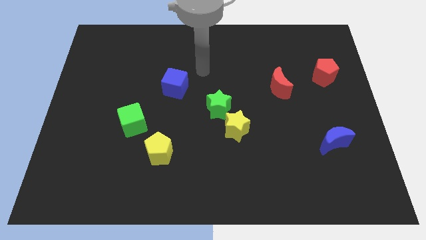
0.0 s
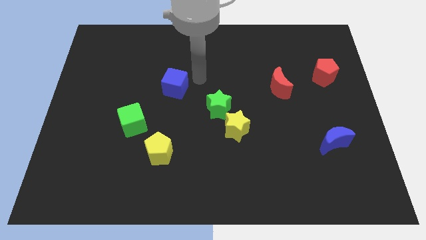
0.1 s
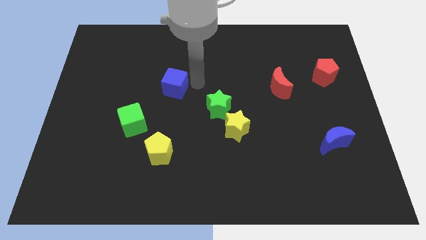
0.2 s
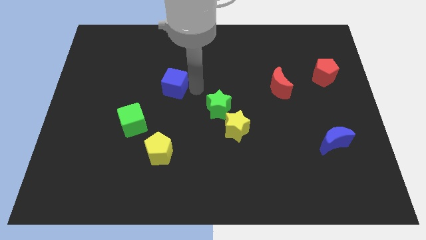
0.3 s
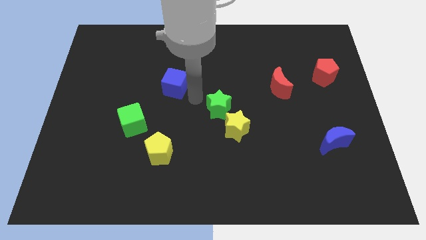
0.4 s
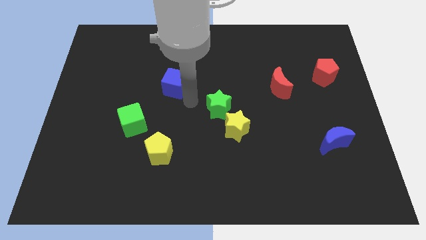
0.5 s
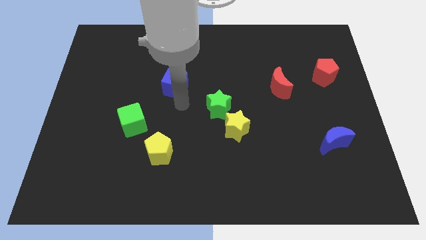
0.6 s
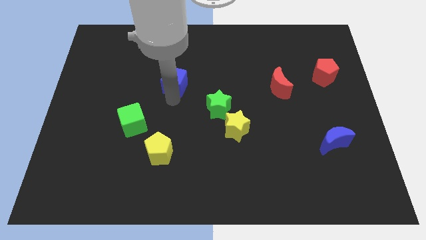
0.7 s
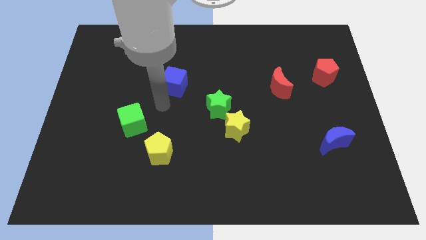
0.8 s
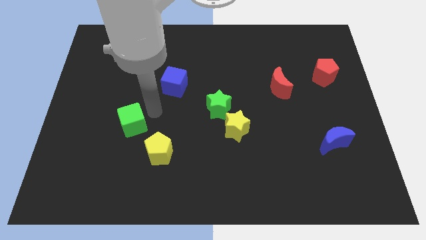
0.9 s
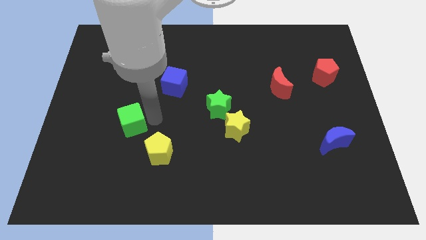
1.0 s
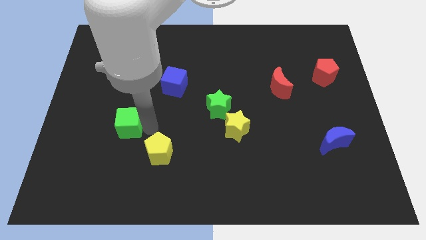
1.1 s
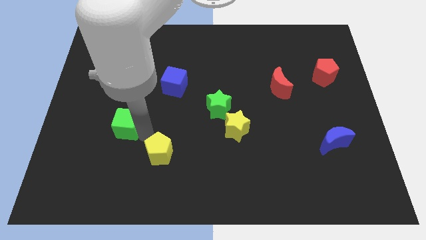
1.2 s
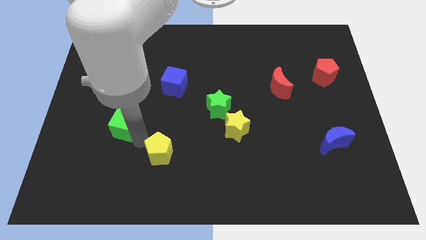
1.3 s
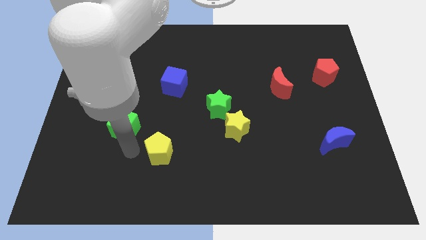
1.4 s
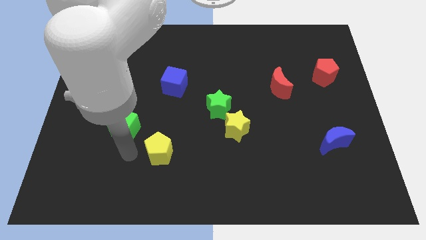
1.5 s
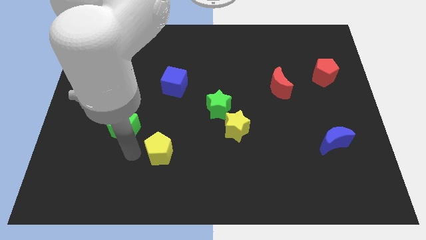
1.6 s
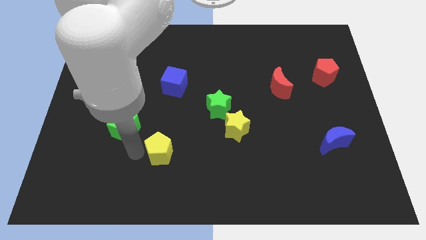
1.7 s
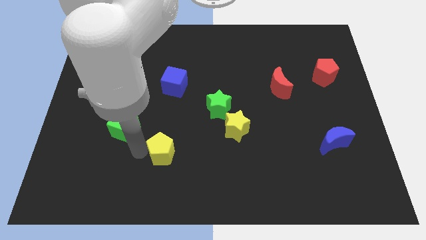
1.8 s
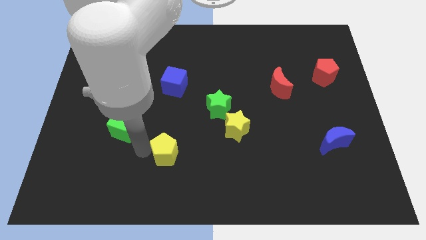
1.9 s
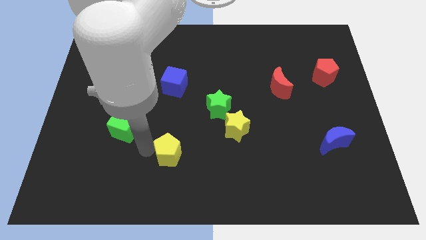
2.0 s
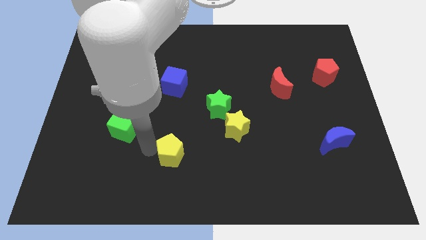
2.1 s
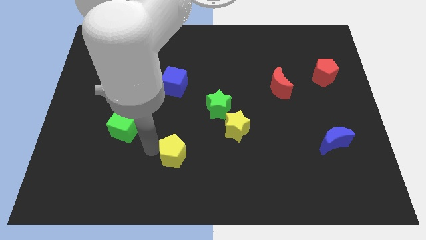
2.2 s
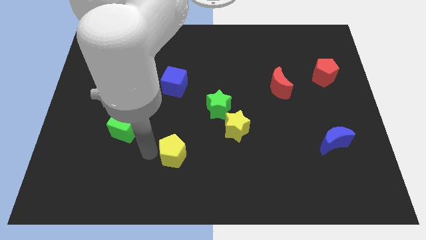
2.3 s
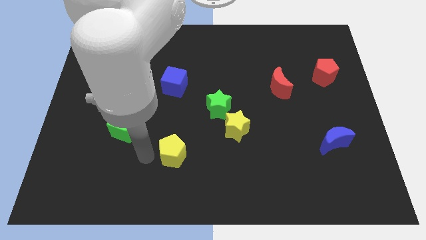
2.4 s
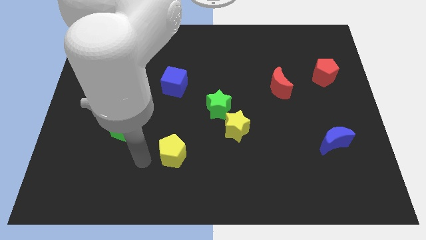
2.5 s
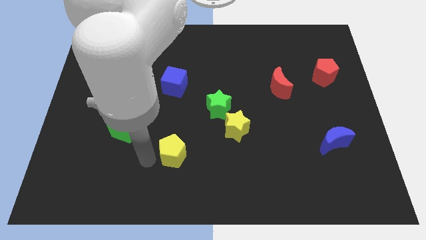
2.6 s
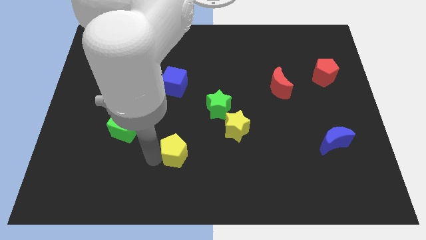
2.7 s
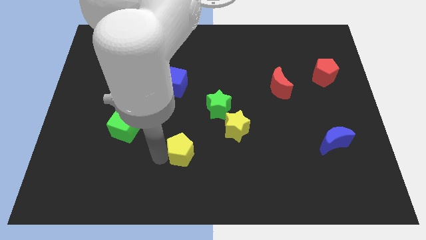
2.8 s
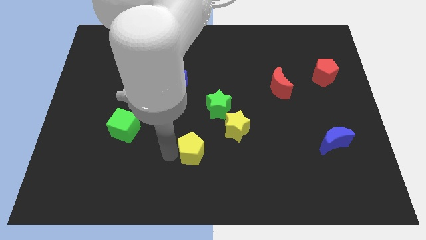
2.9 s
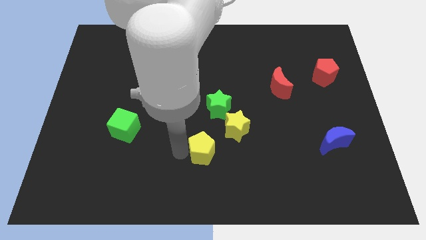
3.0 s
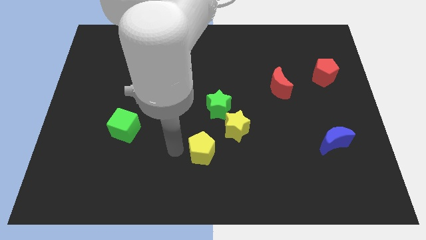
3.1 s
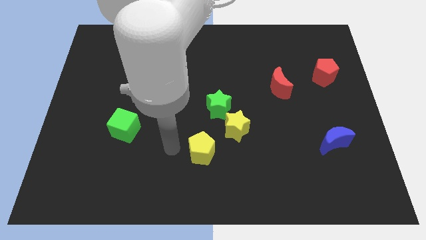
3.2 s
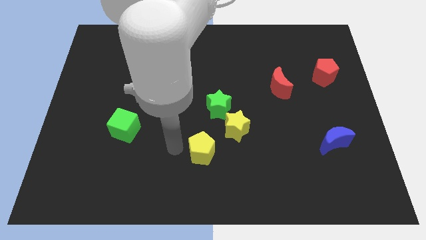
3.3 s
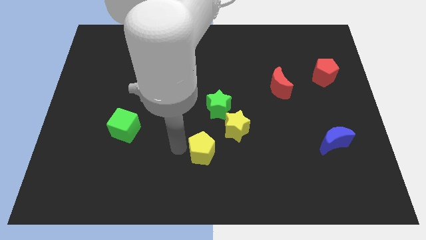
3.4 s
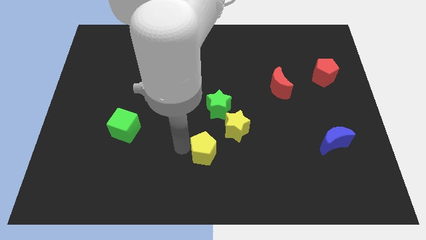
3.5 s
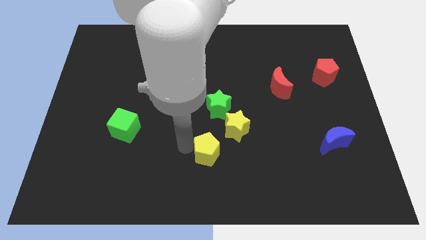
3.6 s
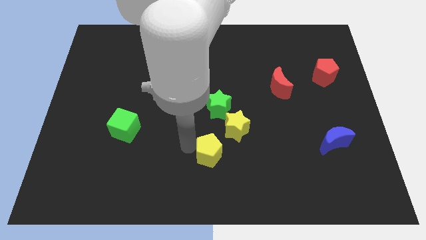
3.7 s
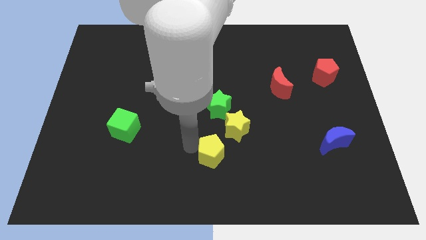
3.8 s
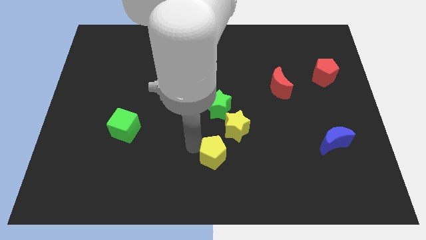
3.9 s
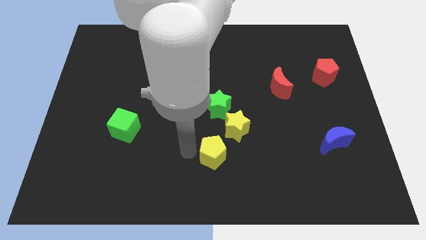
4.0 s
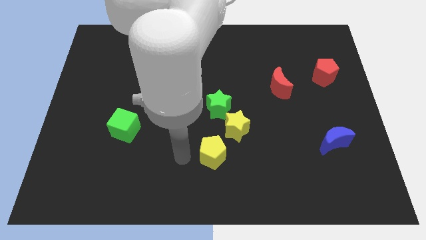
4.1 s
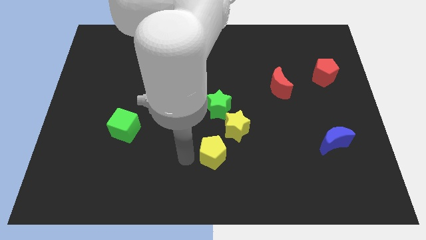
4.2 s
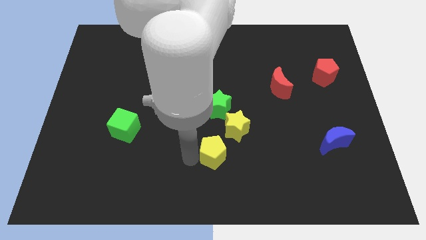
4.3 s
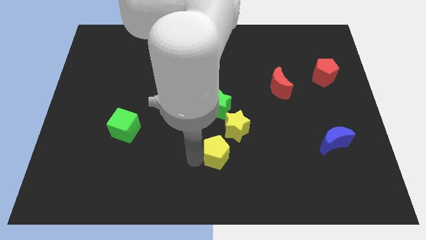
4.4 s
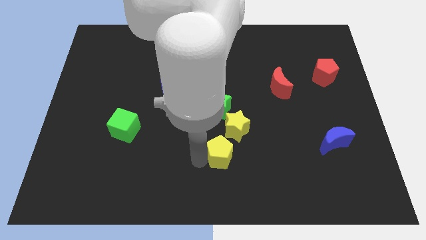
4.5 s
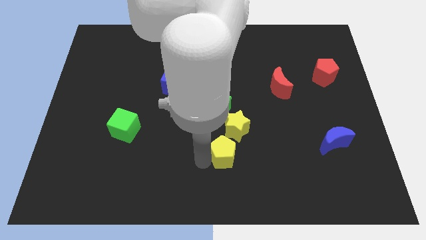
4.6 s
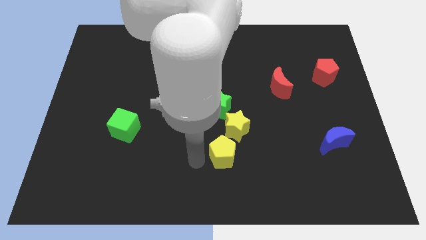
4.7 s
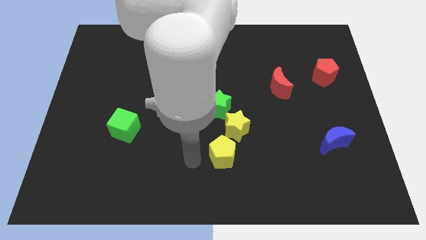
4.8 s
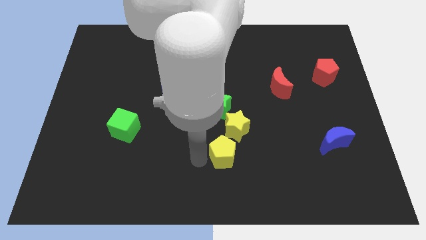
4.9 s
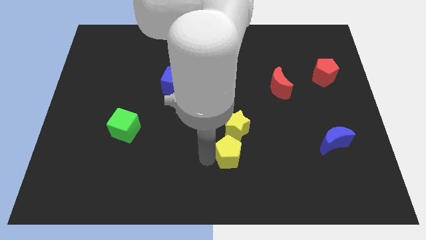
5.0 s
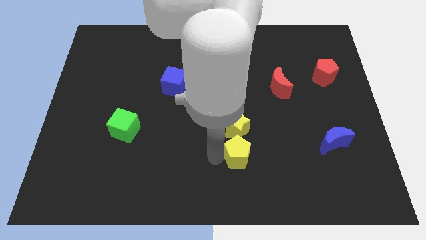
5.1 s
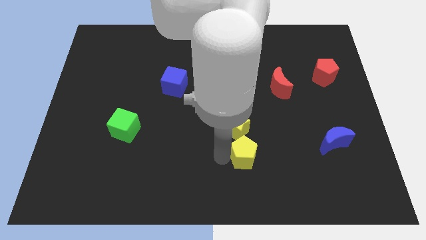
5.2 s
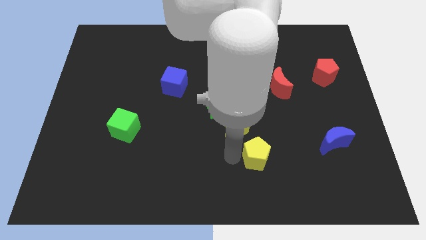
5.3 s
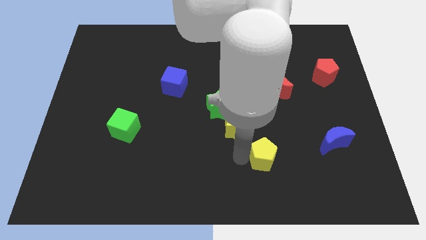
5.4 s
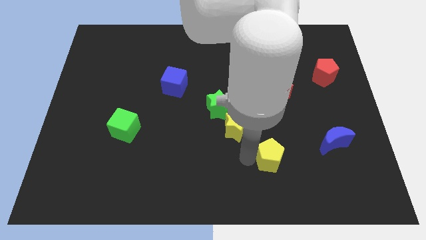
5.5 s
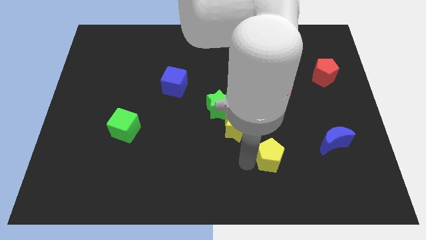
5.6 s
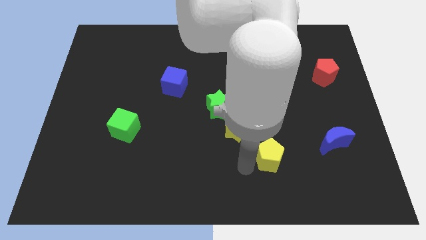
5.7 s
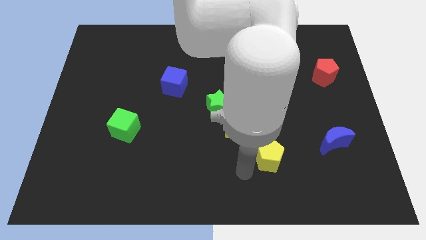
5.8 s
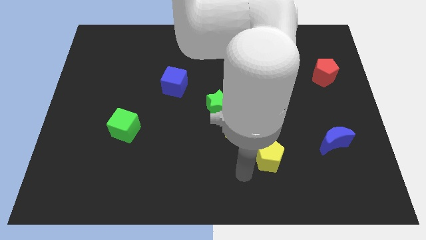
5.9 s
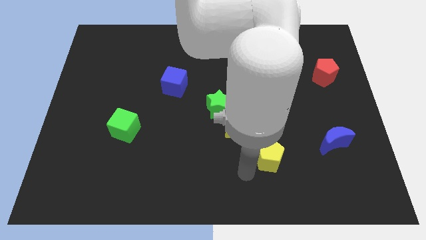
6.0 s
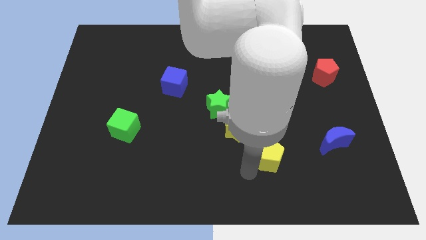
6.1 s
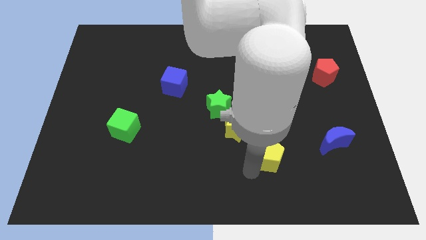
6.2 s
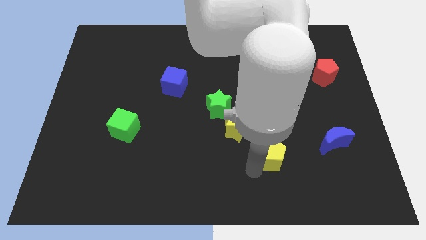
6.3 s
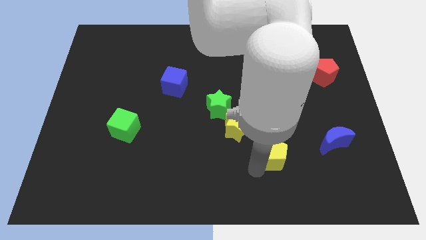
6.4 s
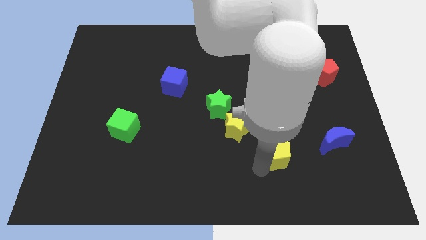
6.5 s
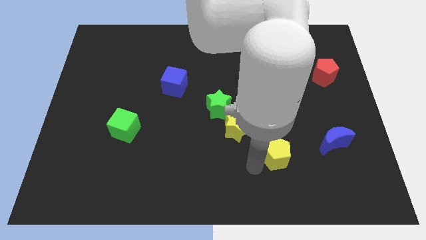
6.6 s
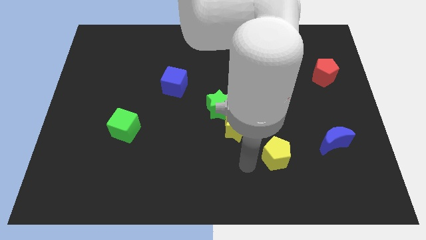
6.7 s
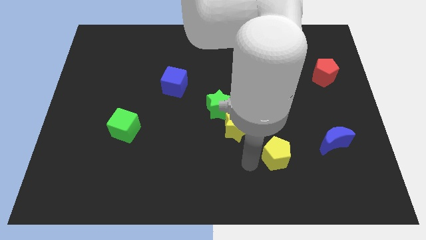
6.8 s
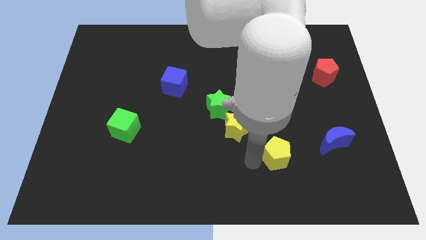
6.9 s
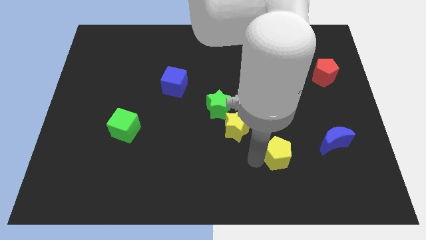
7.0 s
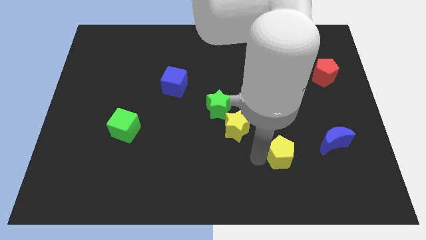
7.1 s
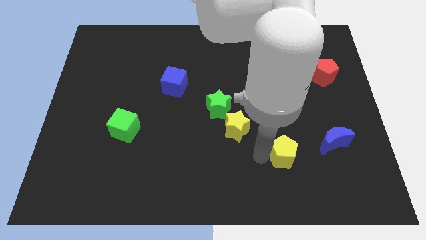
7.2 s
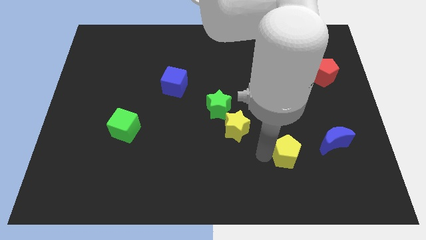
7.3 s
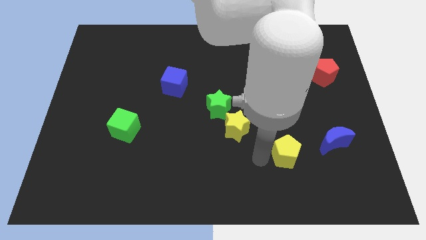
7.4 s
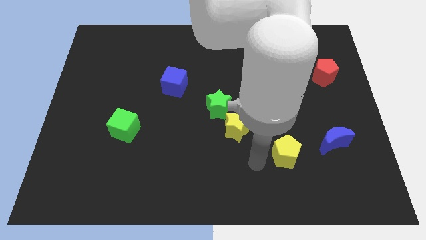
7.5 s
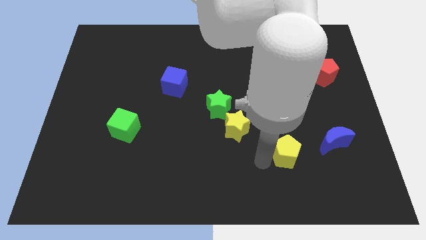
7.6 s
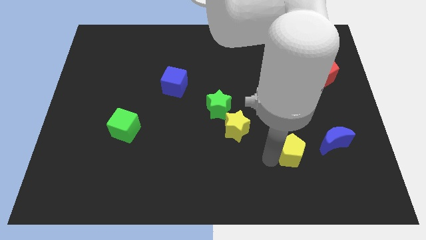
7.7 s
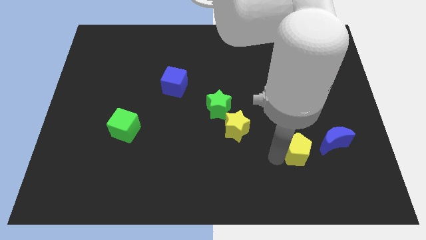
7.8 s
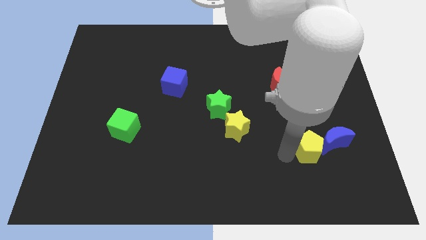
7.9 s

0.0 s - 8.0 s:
move the yellow pentagon next to the blue moon
